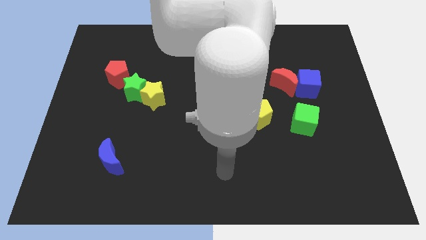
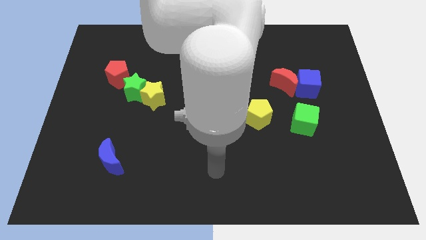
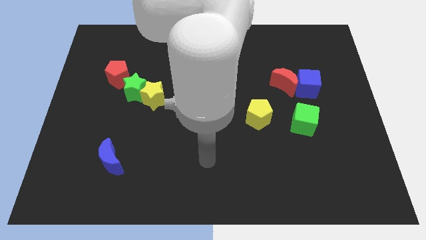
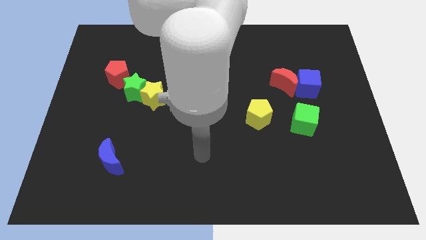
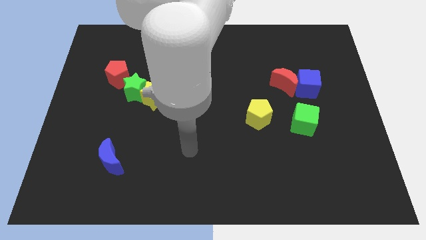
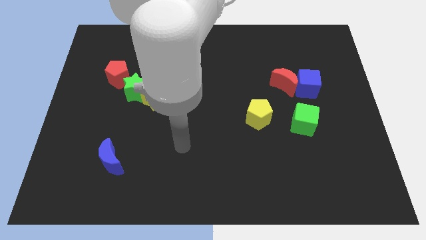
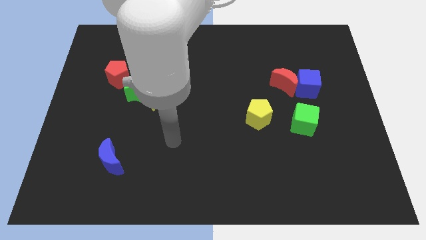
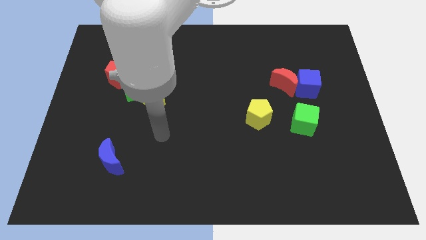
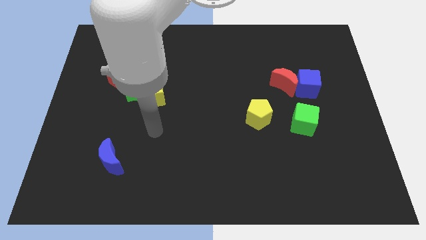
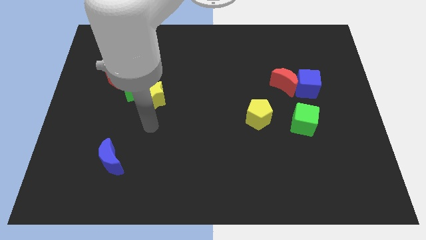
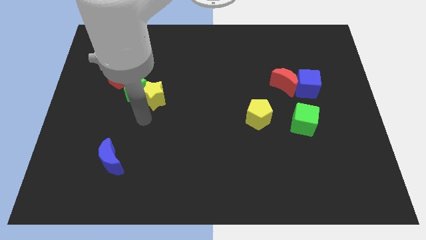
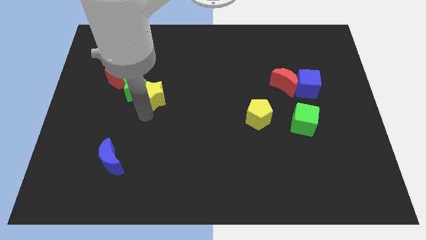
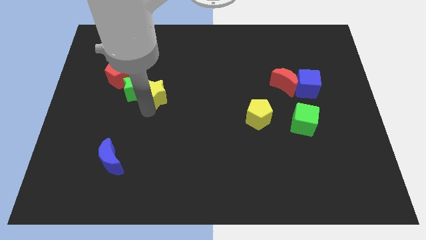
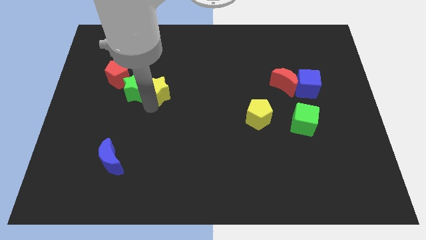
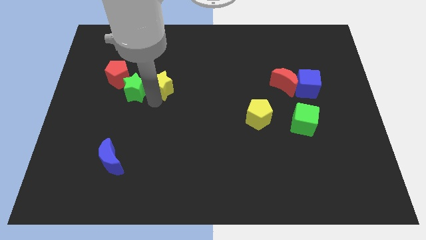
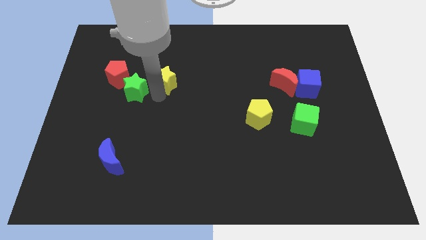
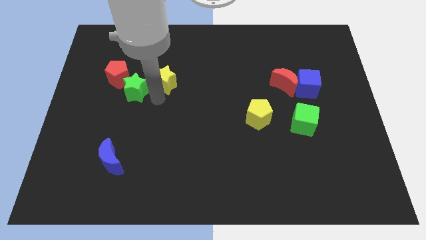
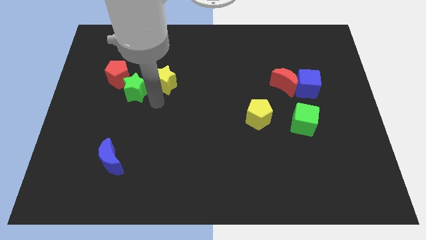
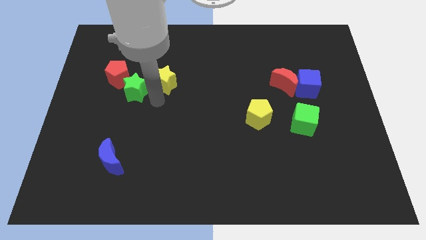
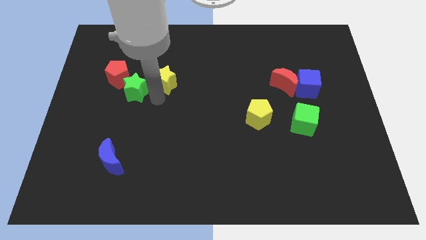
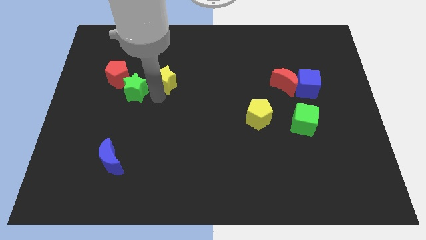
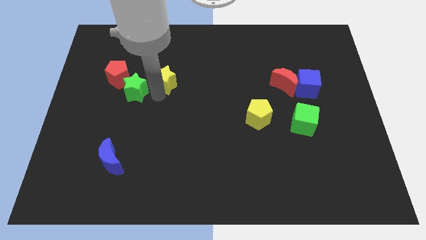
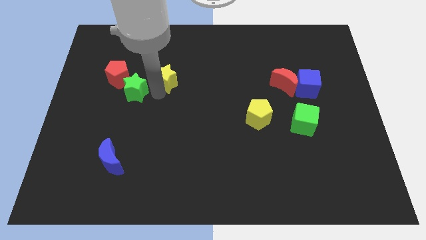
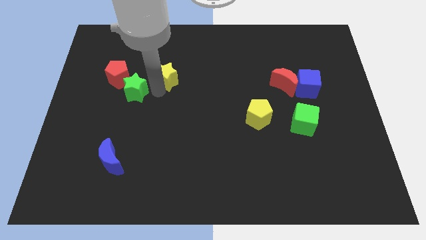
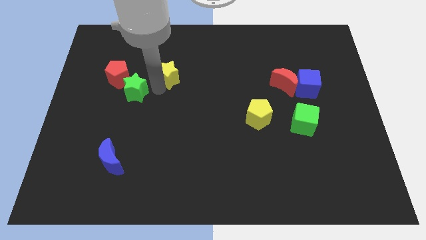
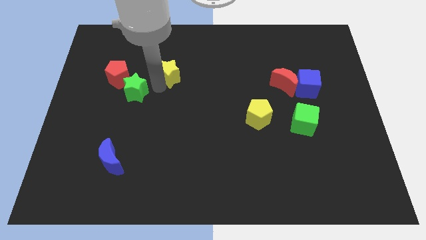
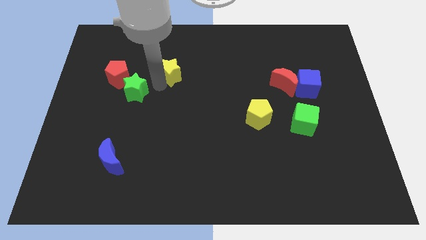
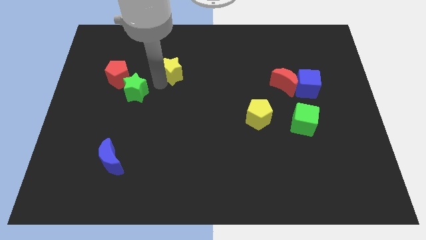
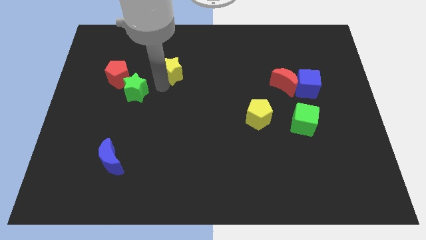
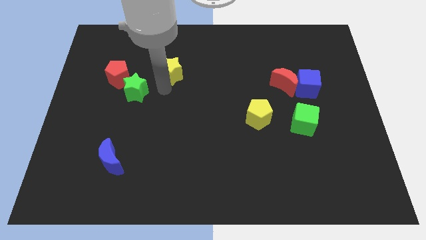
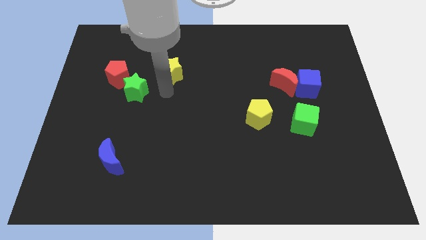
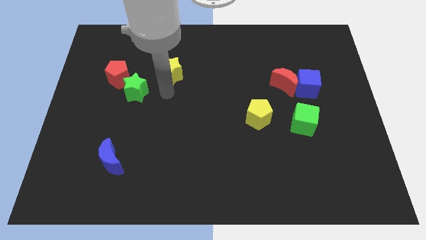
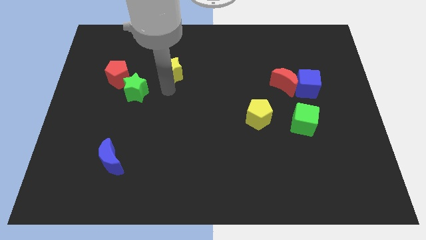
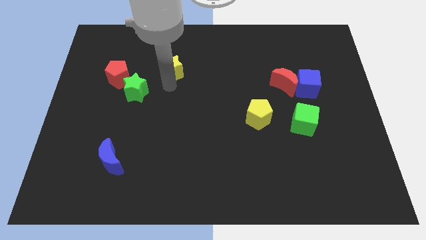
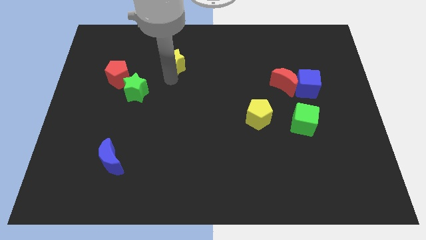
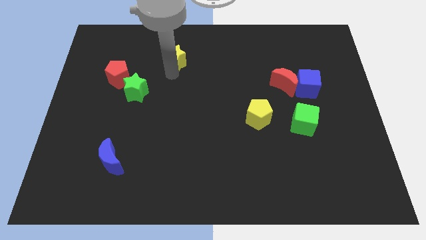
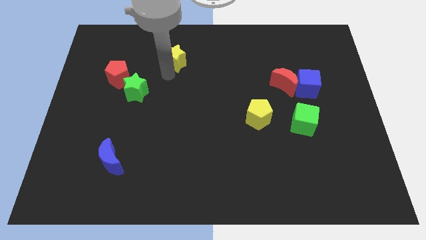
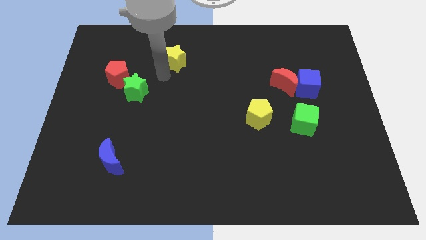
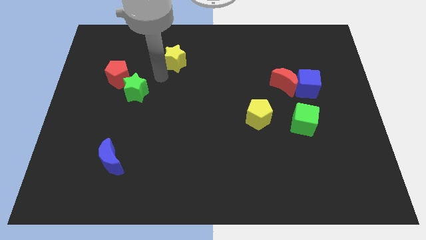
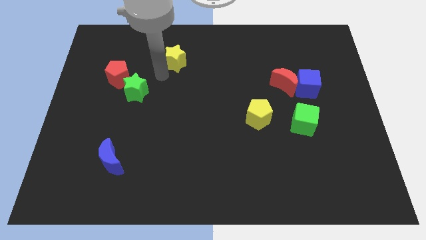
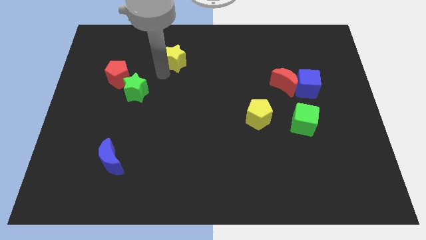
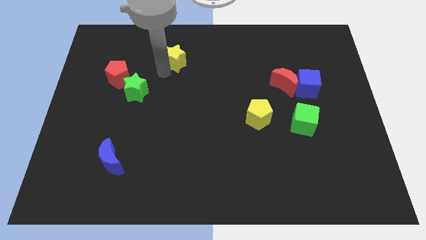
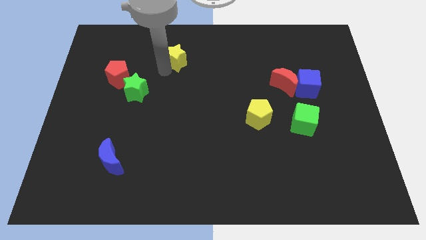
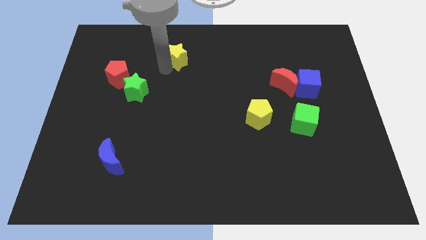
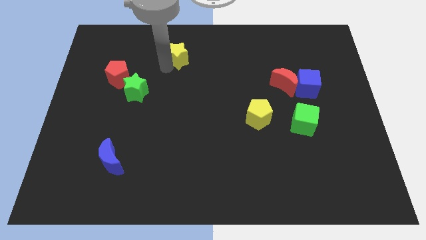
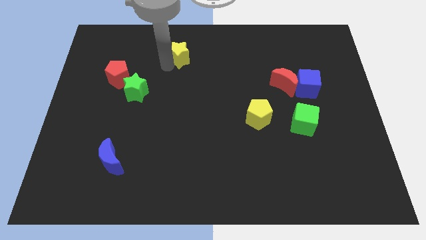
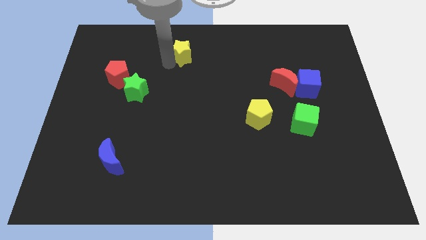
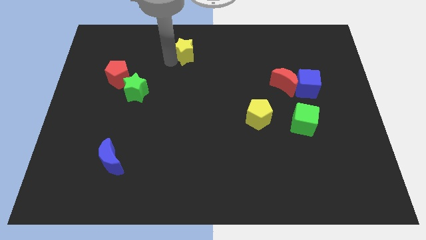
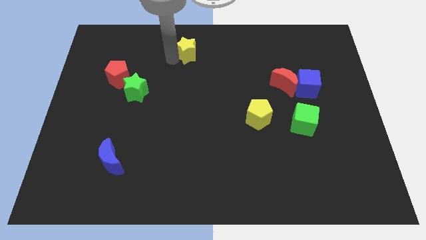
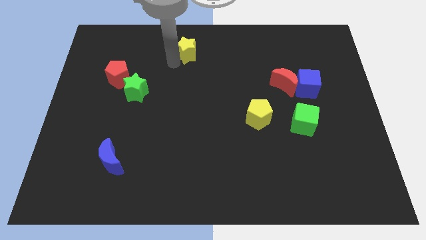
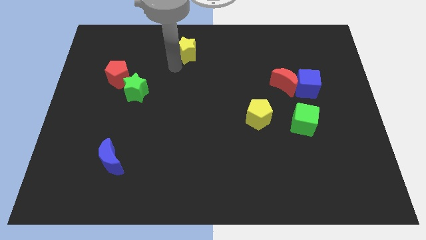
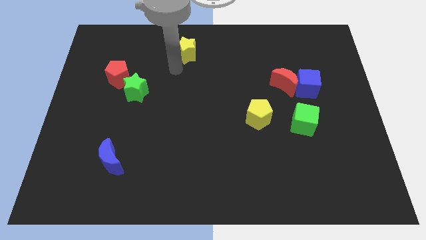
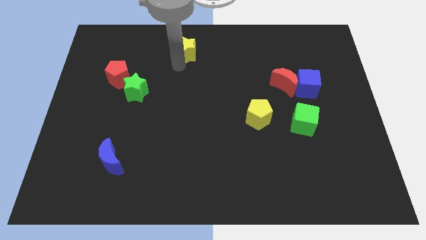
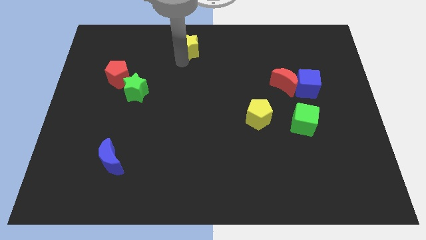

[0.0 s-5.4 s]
slide the yellow star to the top side

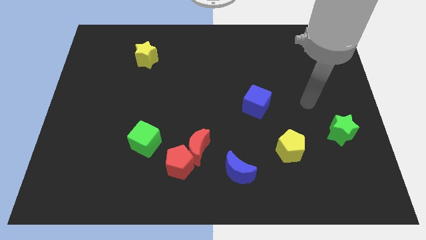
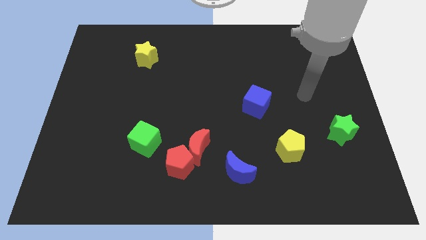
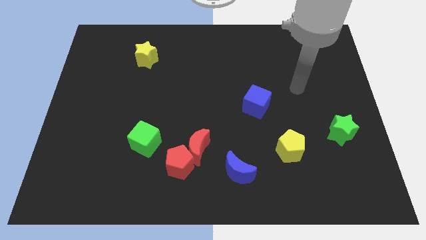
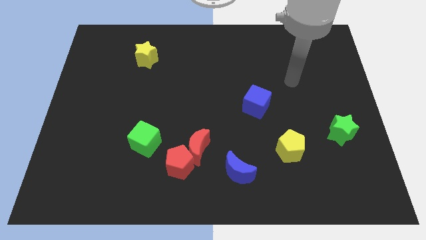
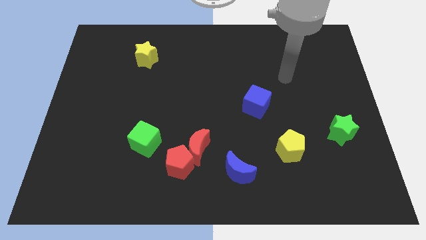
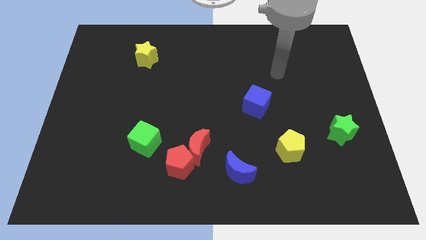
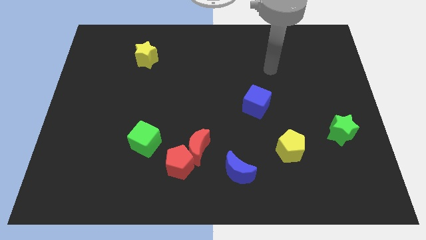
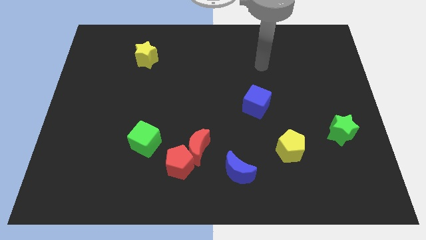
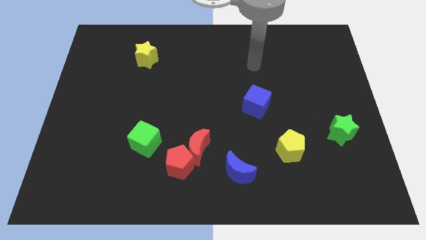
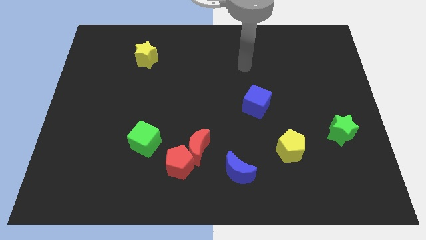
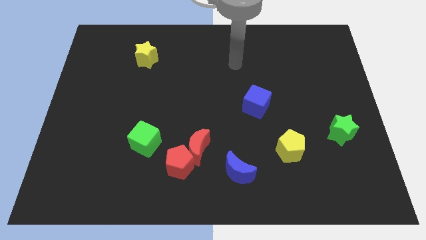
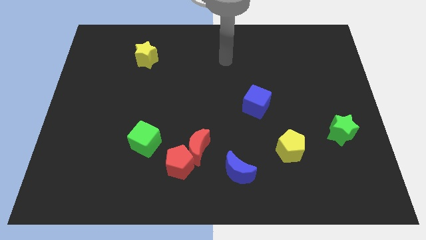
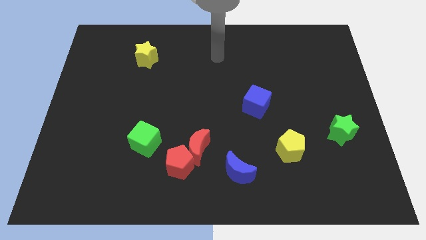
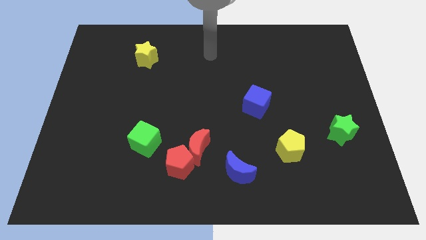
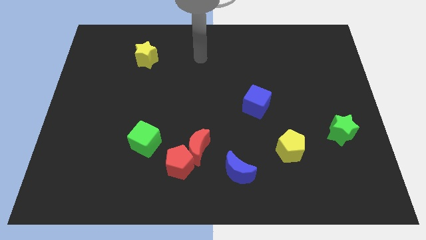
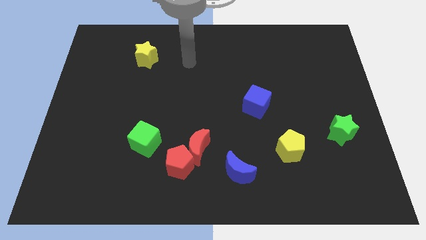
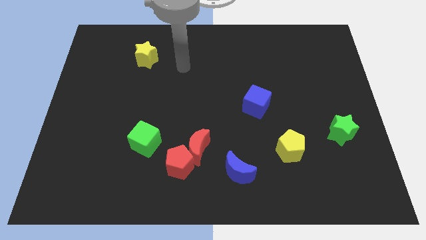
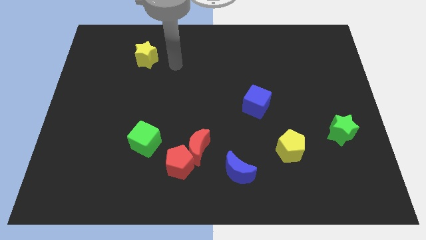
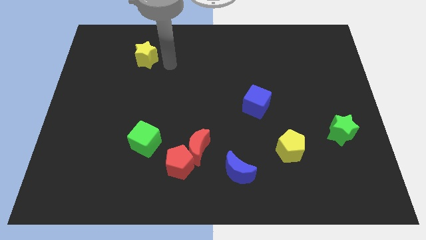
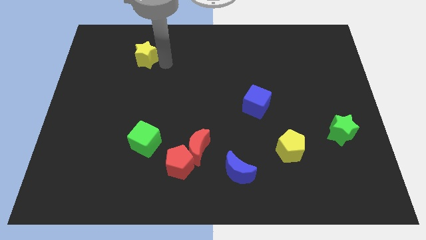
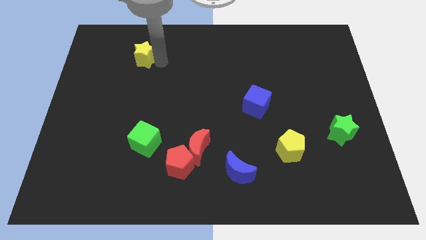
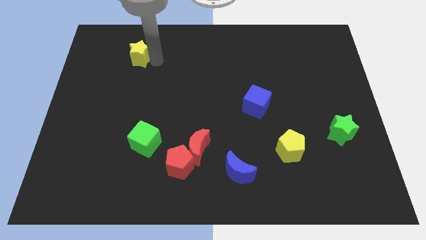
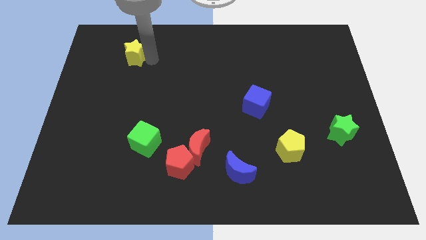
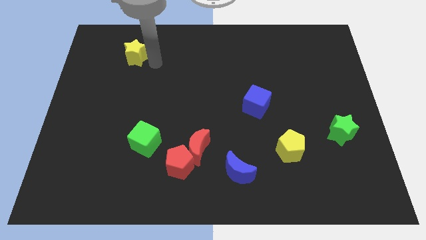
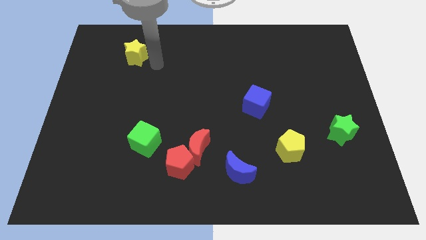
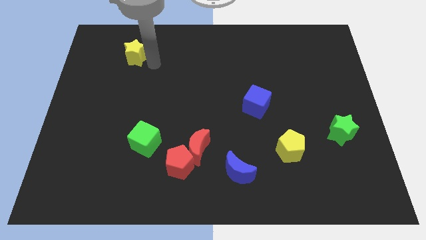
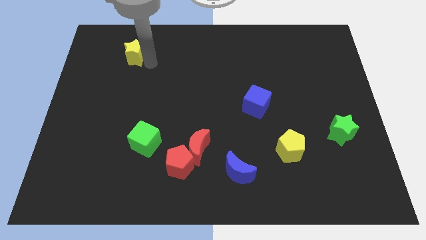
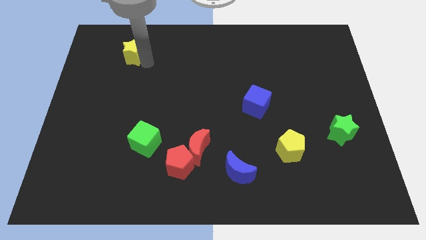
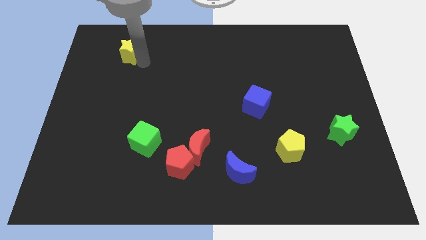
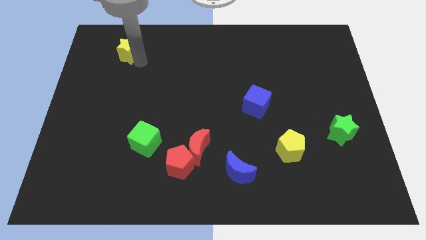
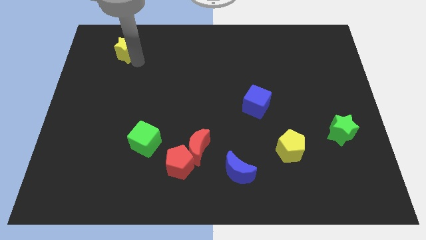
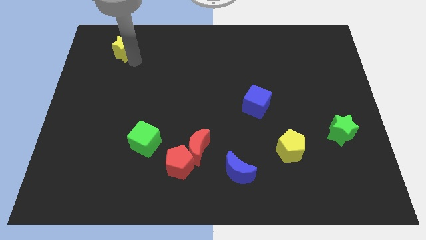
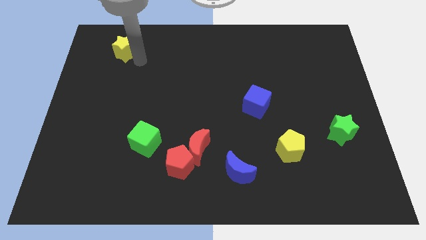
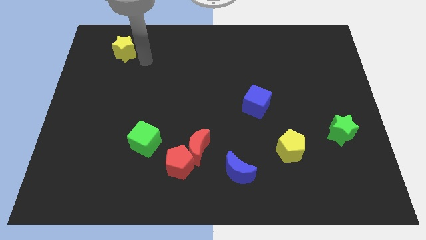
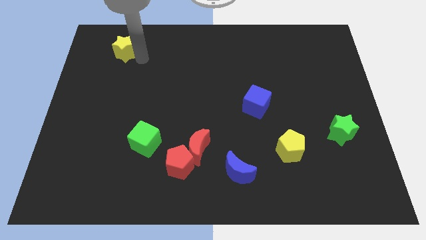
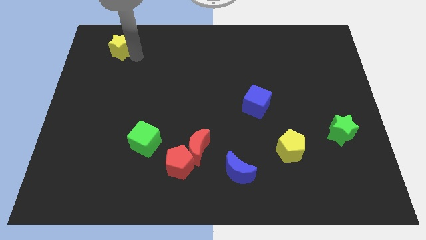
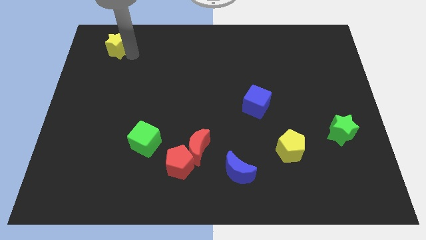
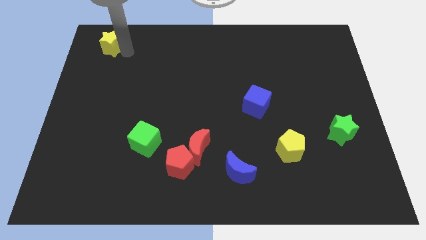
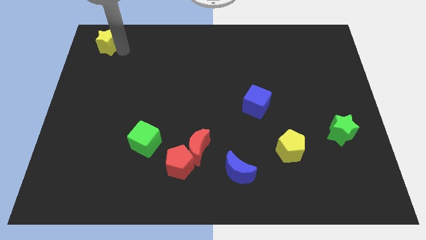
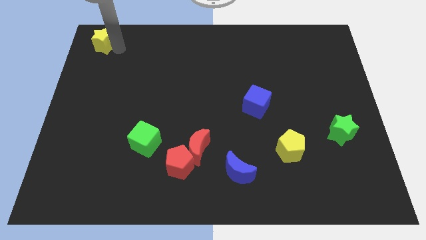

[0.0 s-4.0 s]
slide the yellow star to the top left
